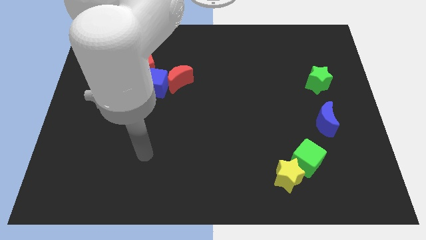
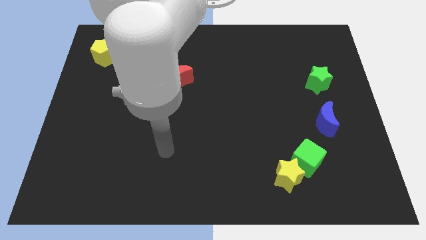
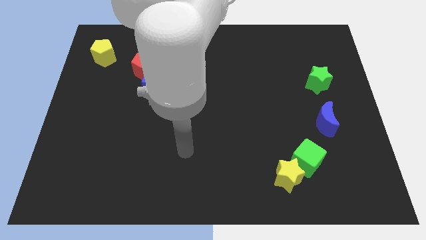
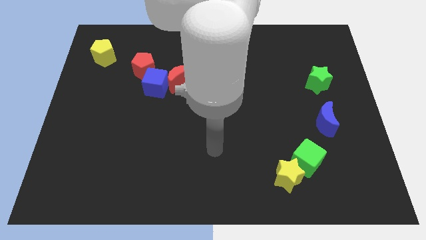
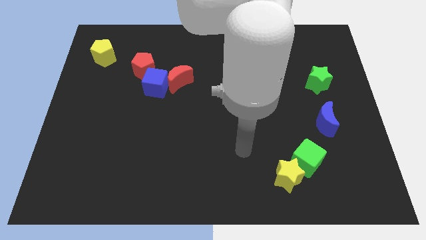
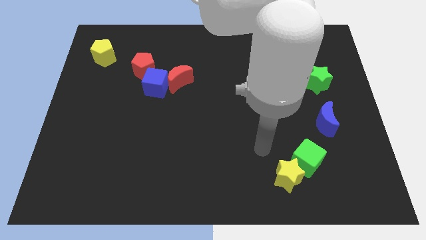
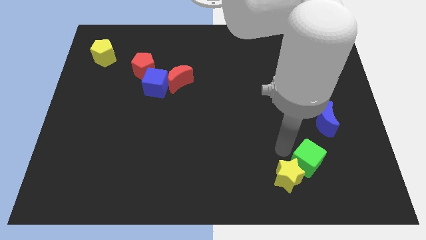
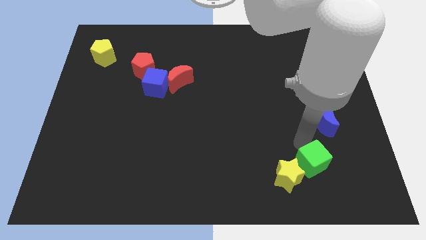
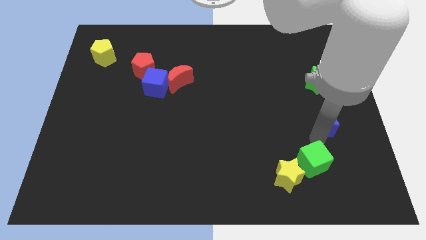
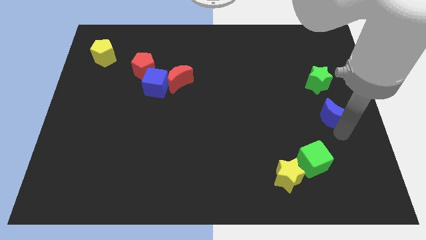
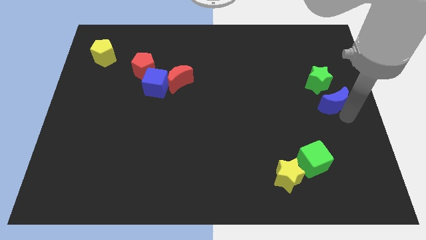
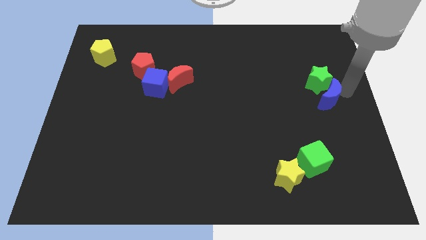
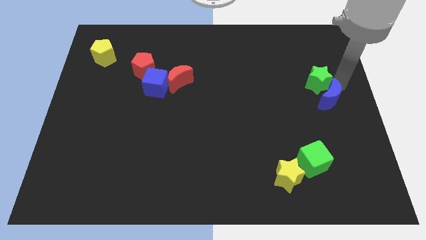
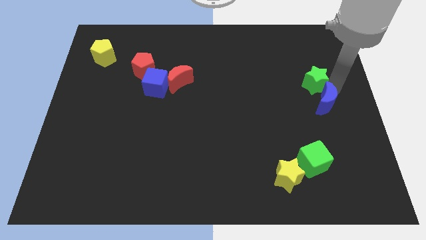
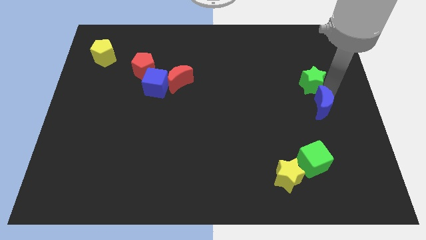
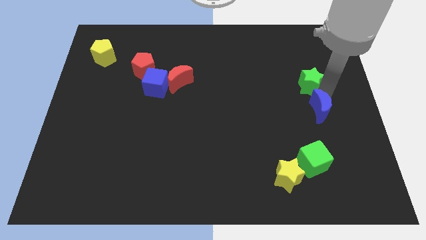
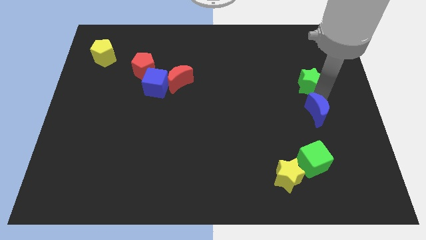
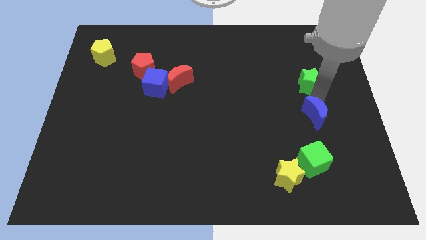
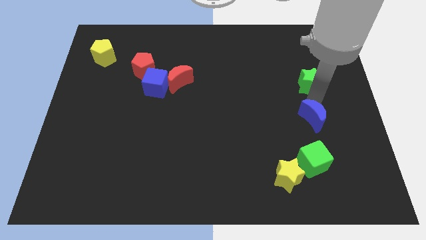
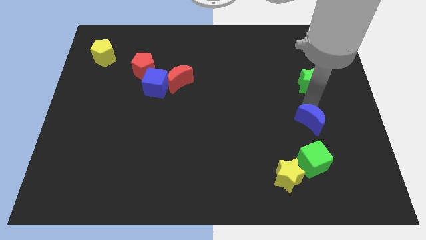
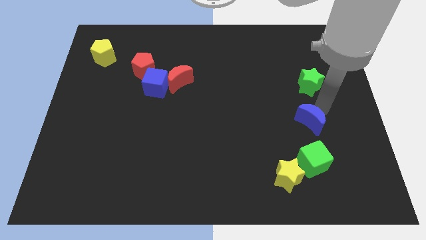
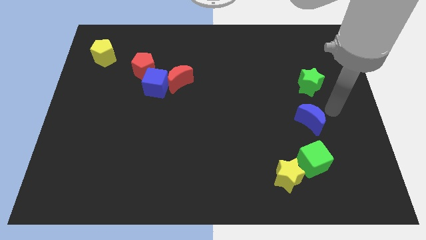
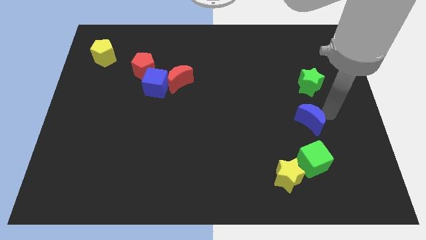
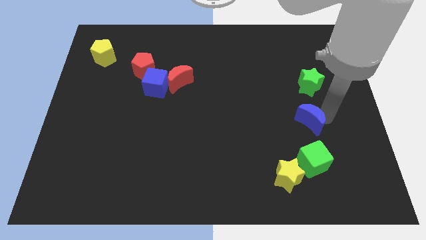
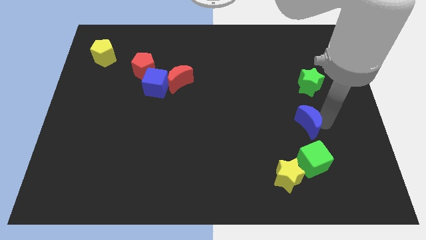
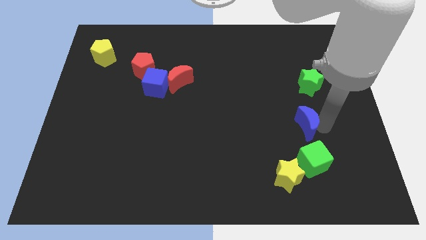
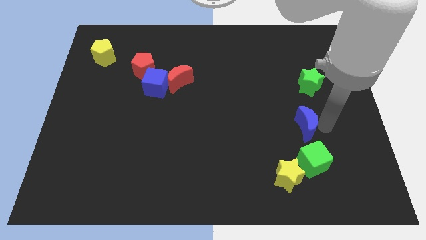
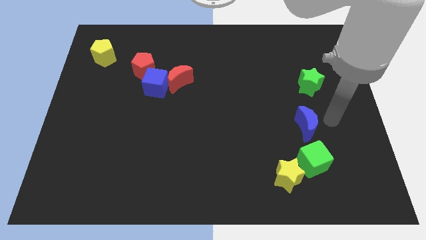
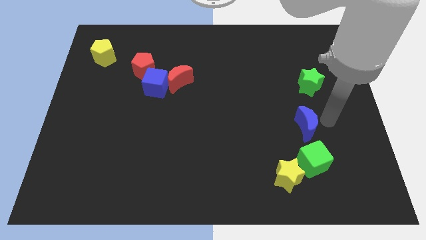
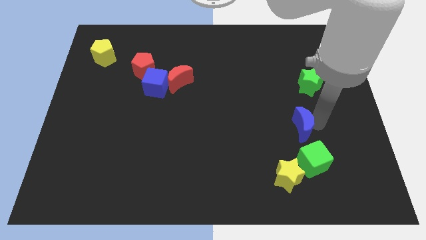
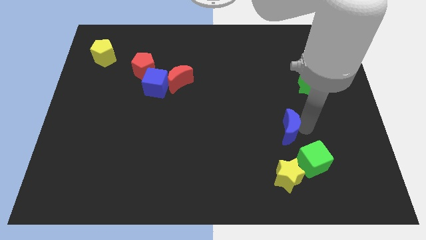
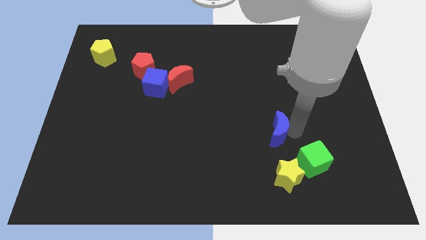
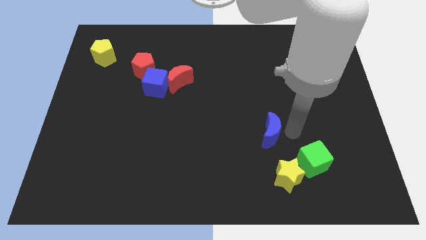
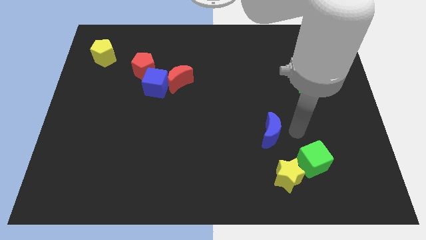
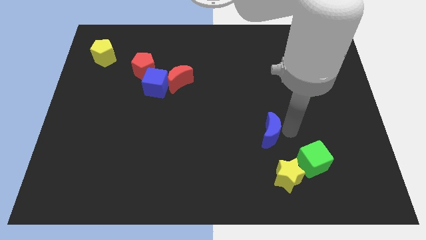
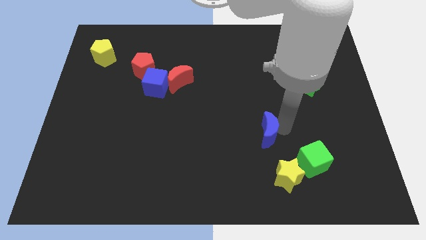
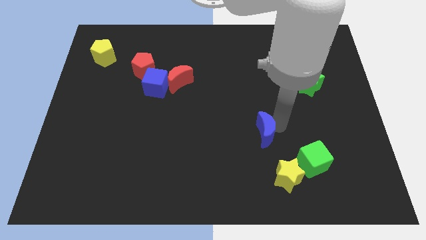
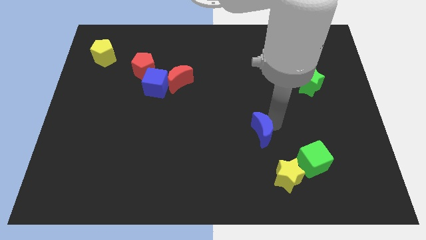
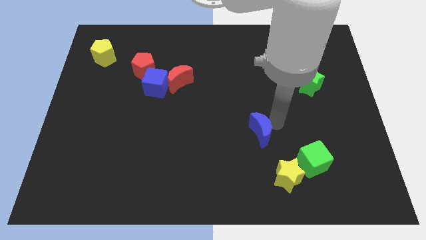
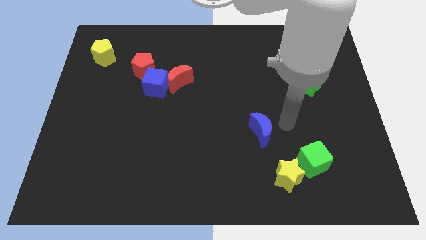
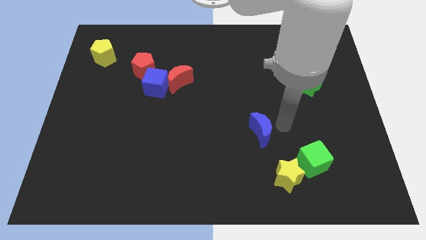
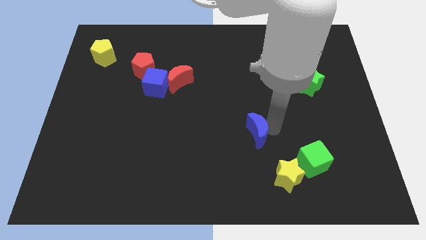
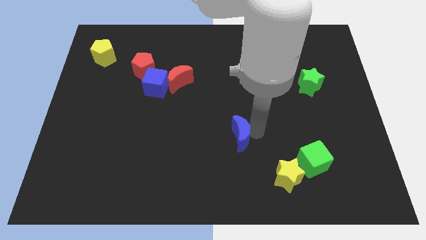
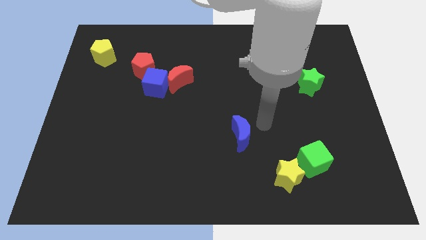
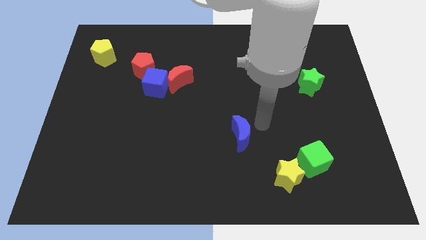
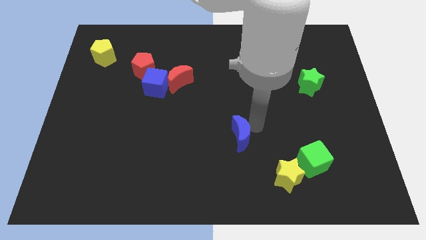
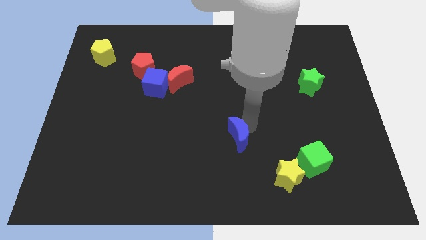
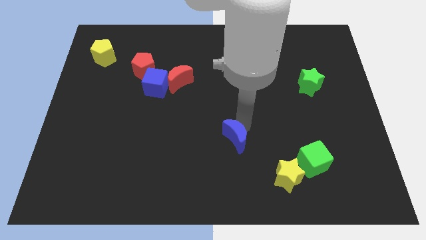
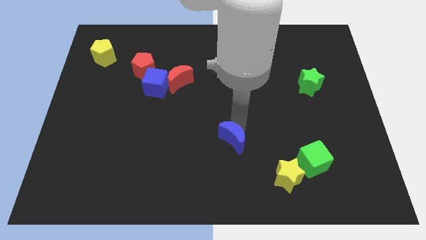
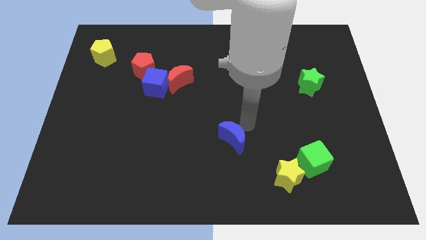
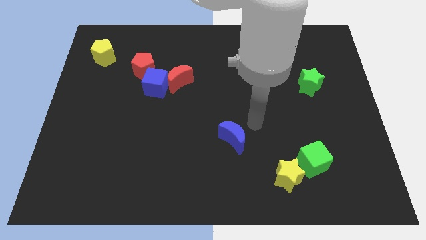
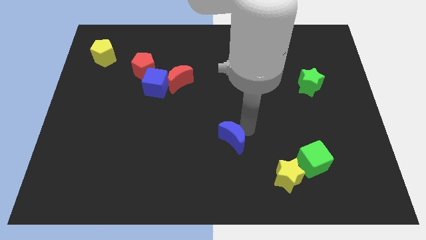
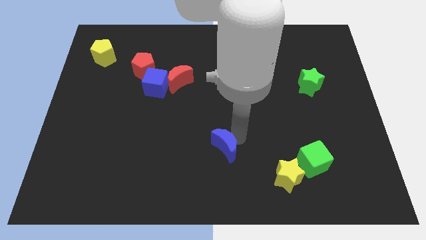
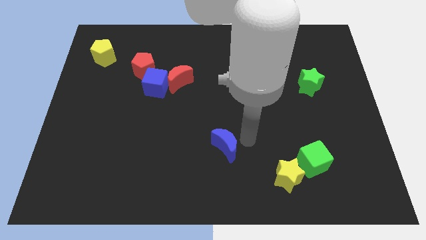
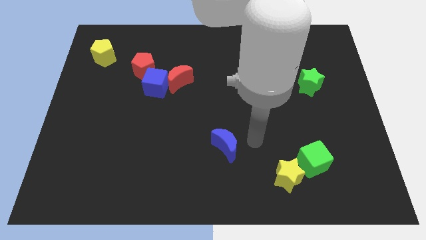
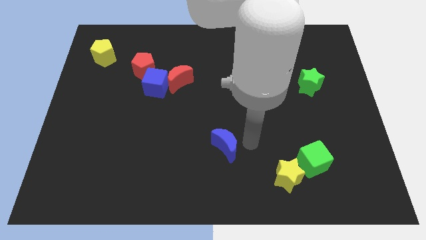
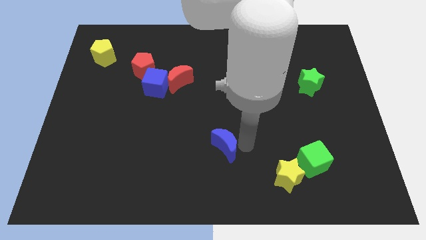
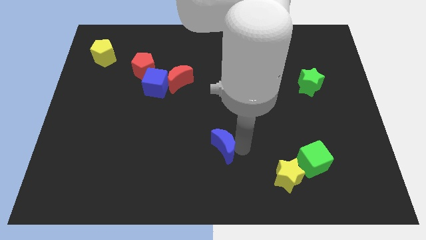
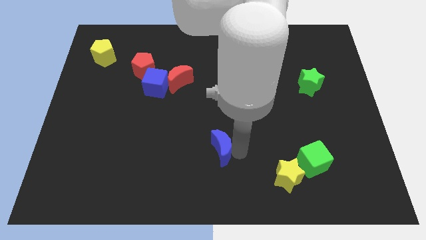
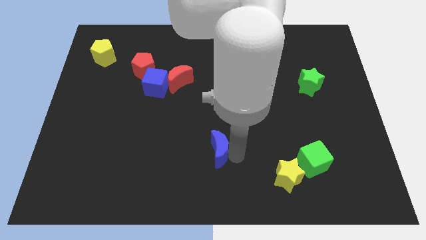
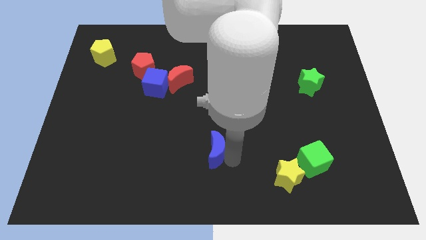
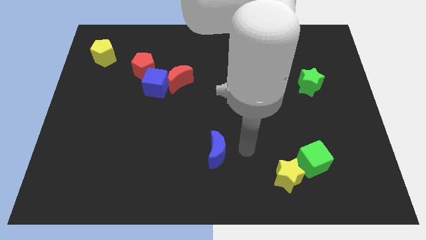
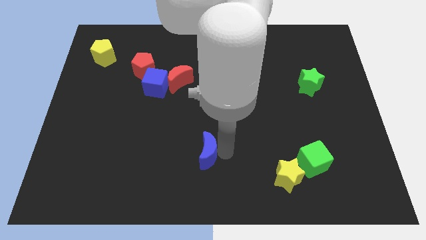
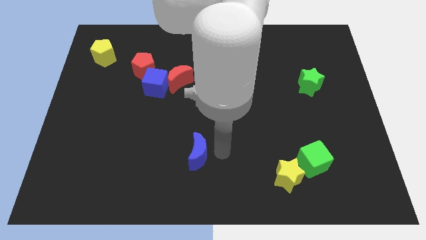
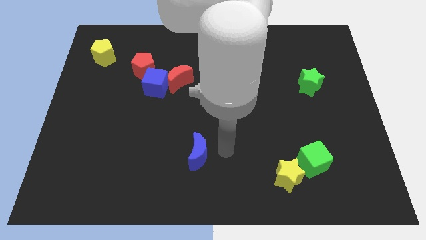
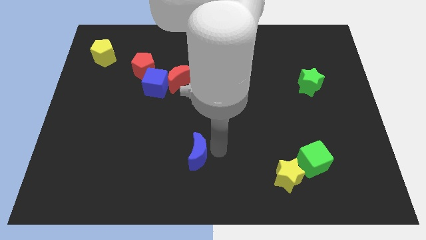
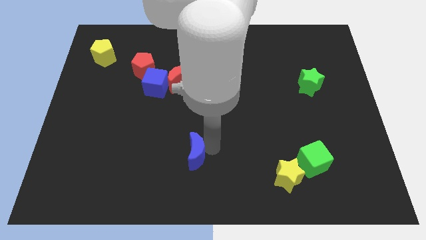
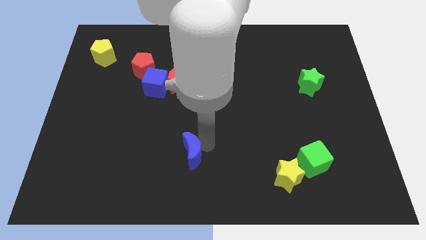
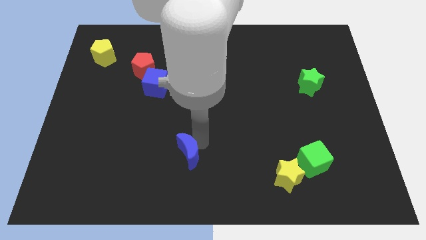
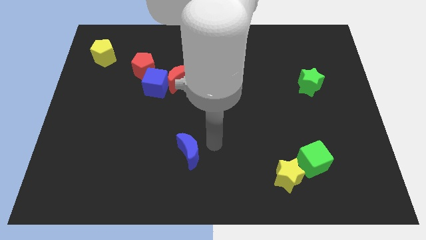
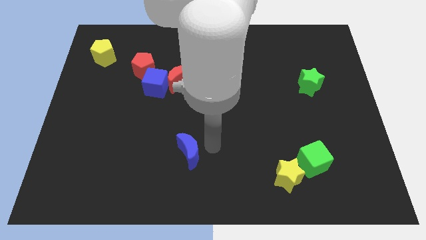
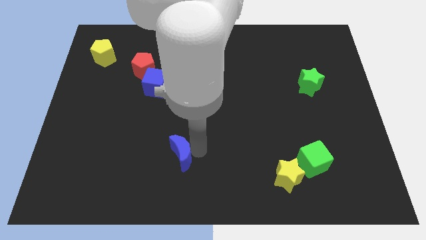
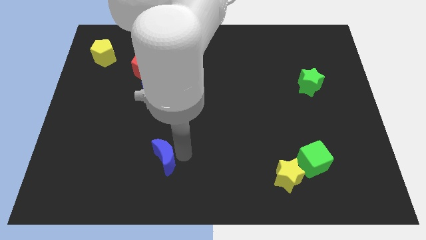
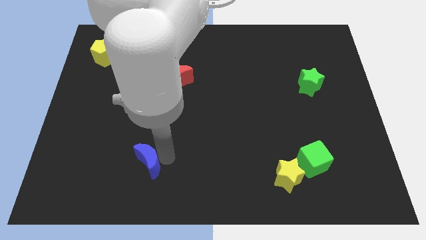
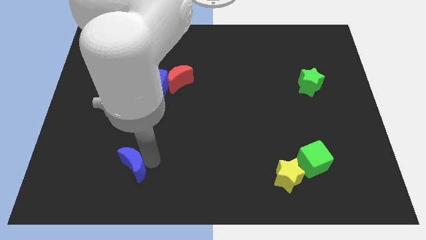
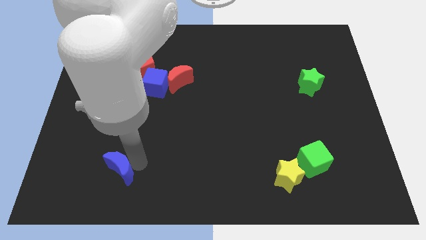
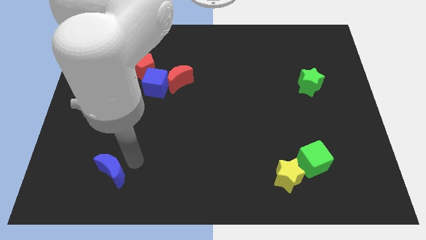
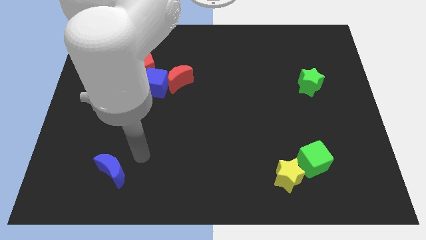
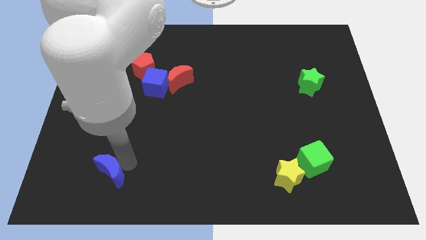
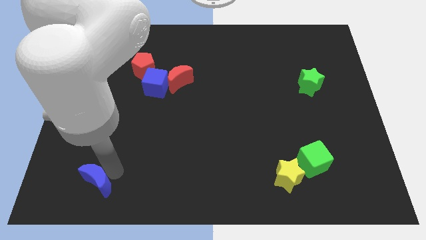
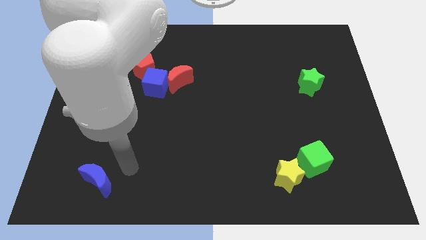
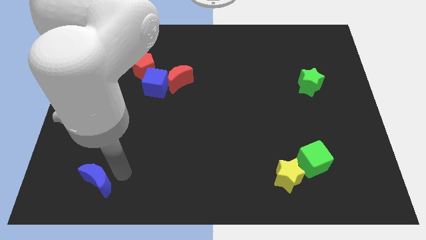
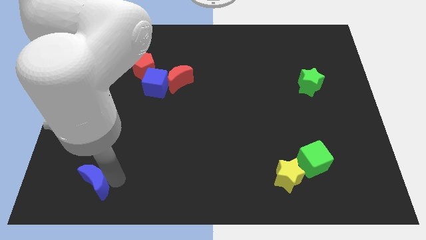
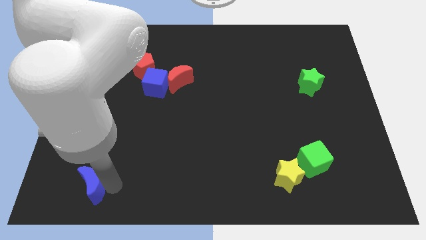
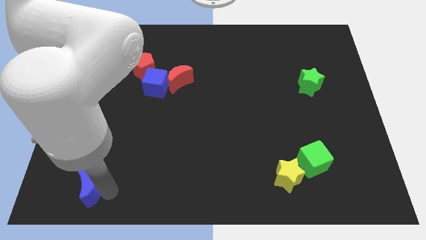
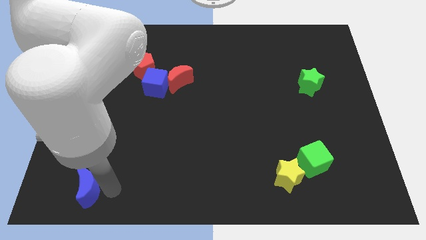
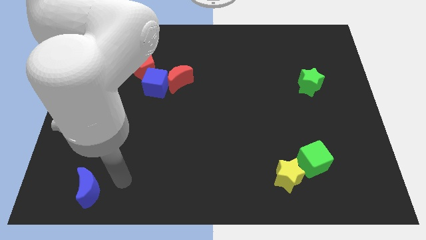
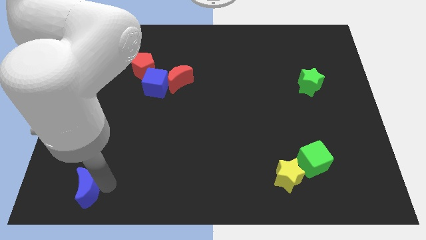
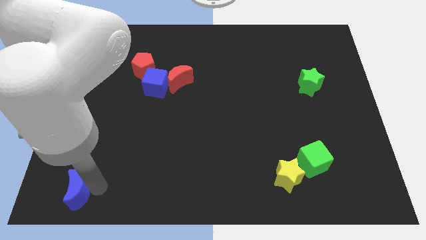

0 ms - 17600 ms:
slide the blue moon to the lower left corner
